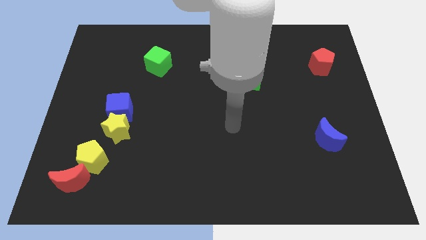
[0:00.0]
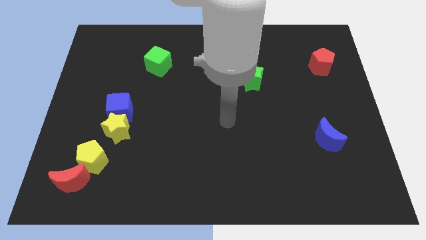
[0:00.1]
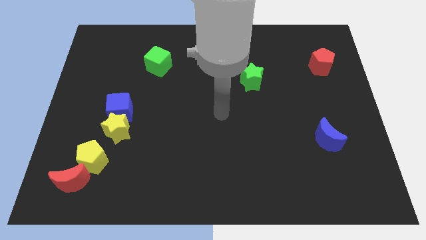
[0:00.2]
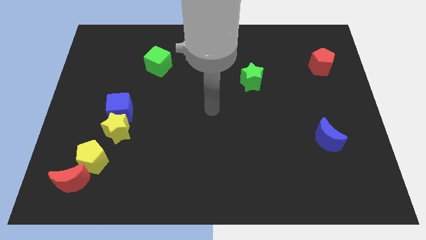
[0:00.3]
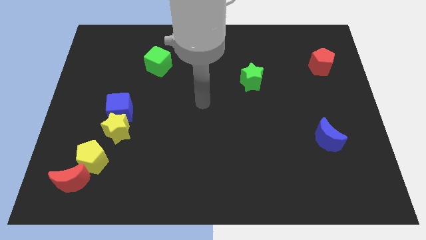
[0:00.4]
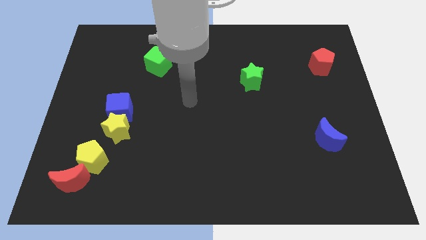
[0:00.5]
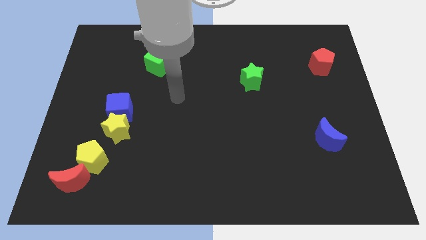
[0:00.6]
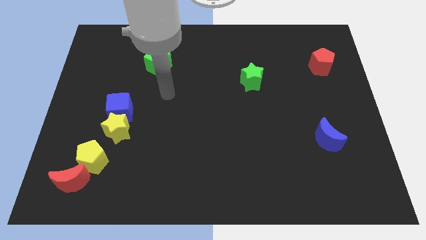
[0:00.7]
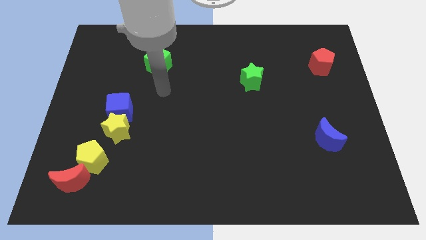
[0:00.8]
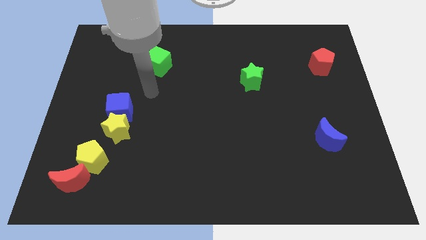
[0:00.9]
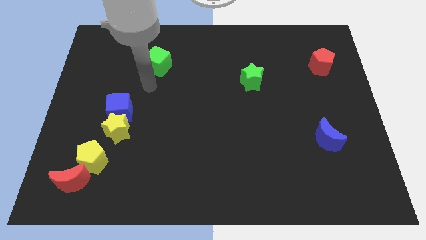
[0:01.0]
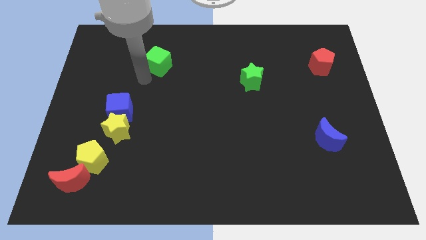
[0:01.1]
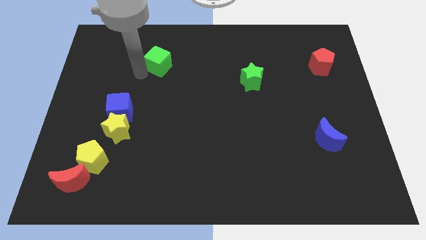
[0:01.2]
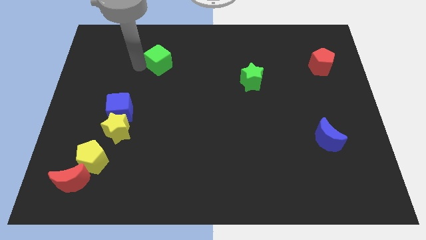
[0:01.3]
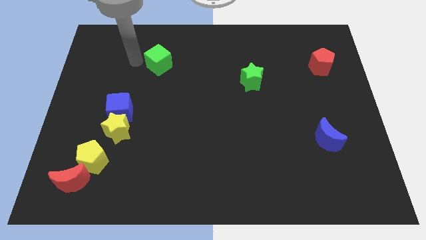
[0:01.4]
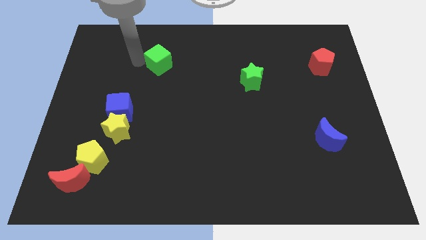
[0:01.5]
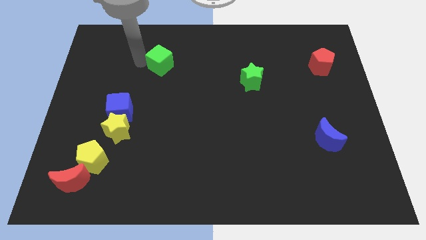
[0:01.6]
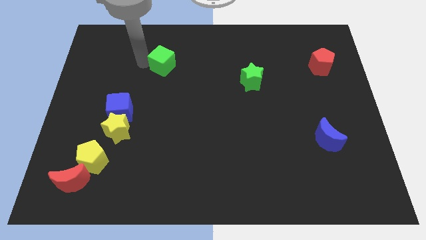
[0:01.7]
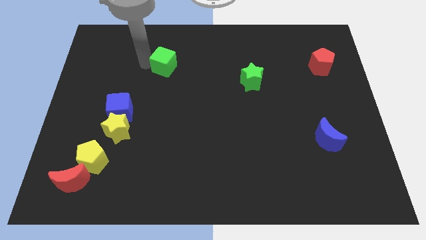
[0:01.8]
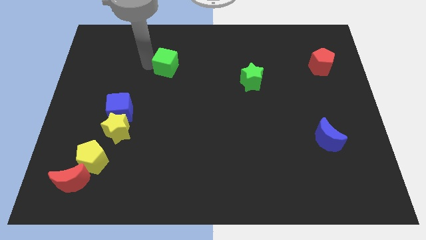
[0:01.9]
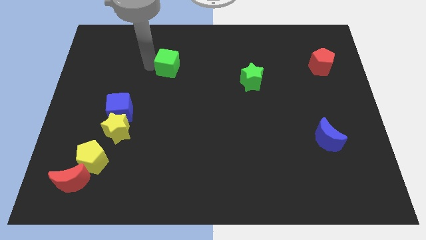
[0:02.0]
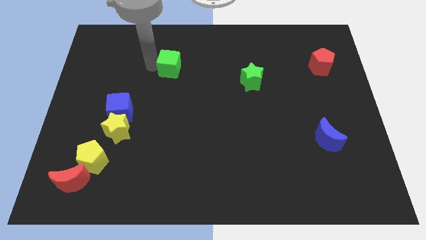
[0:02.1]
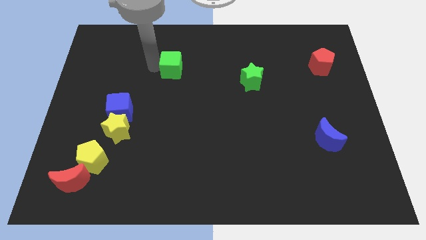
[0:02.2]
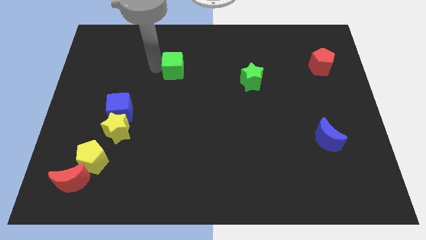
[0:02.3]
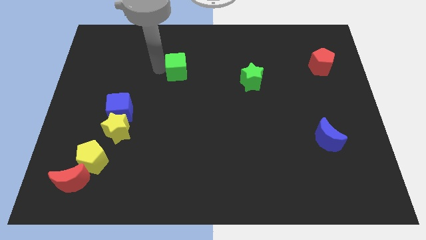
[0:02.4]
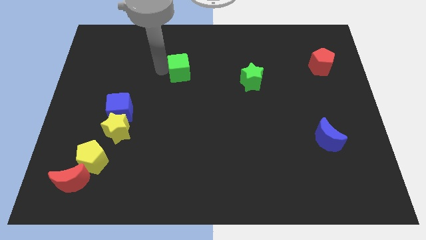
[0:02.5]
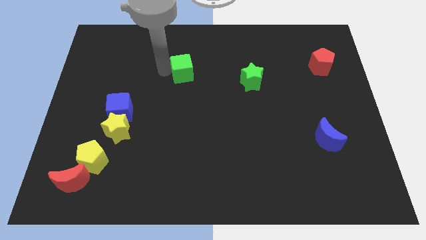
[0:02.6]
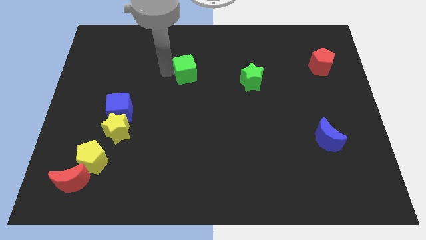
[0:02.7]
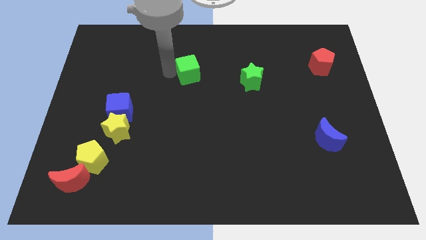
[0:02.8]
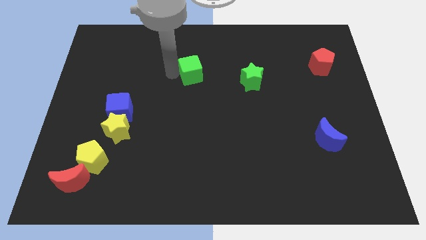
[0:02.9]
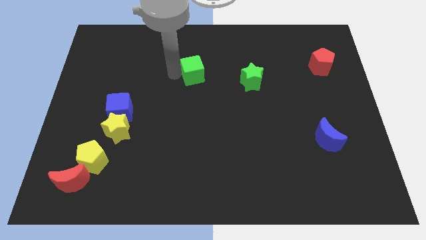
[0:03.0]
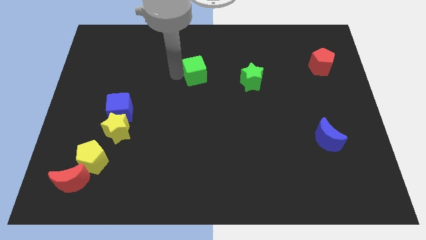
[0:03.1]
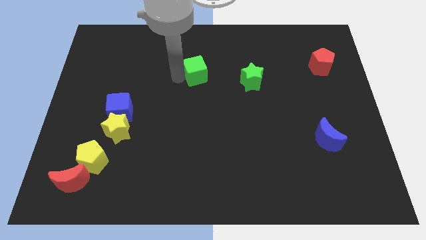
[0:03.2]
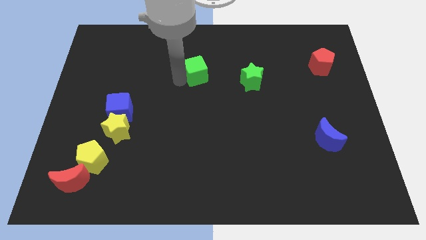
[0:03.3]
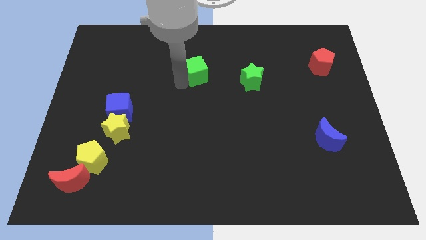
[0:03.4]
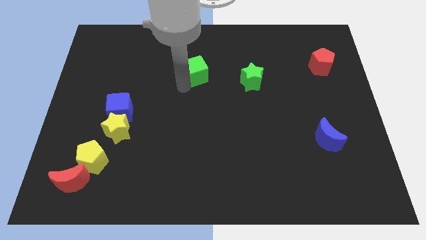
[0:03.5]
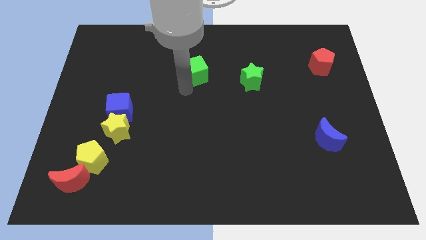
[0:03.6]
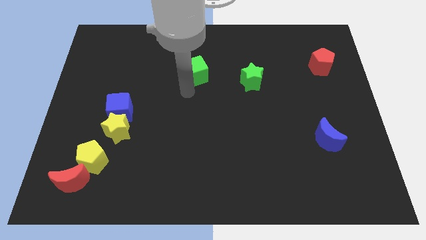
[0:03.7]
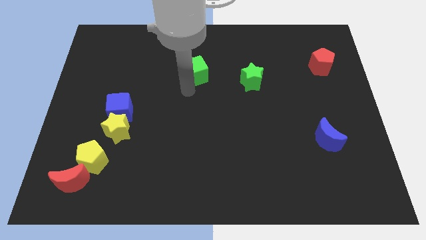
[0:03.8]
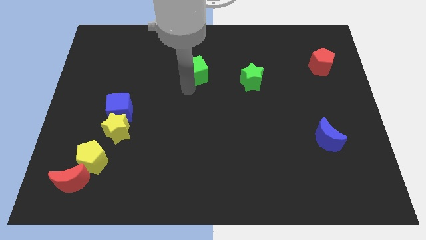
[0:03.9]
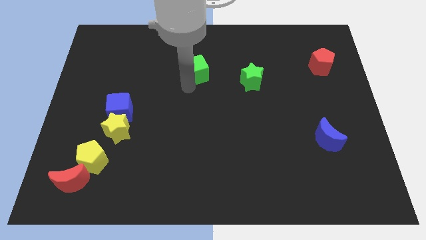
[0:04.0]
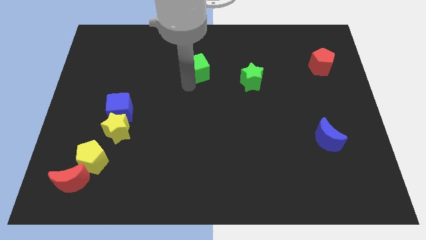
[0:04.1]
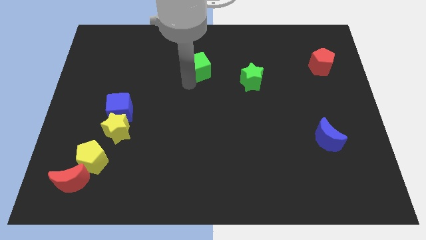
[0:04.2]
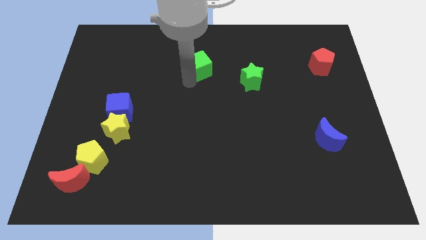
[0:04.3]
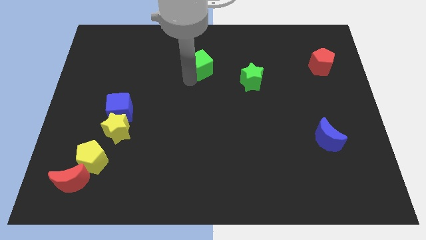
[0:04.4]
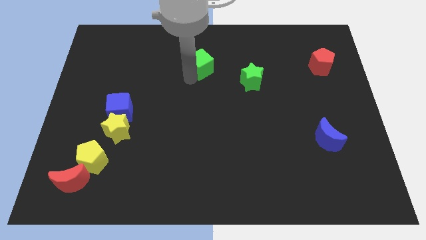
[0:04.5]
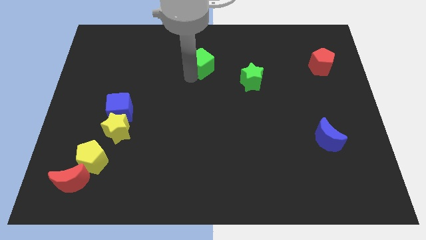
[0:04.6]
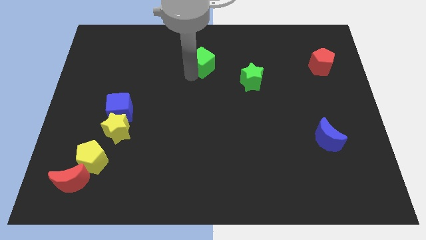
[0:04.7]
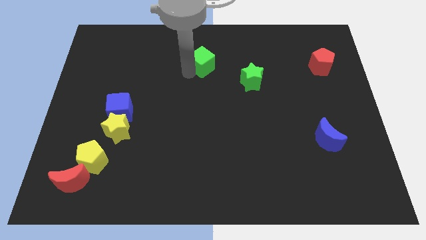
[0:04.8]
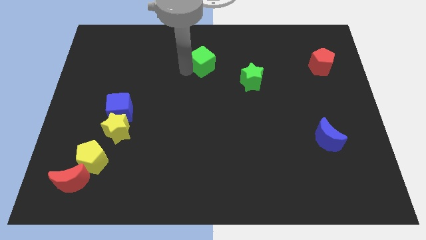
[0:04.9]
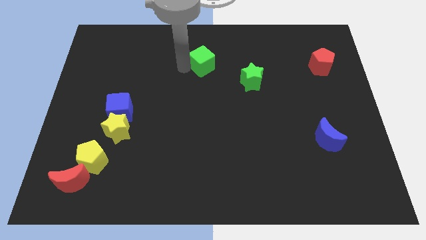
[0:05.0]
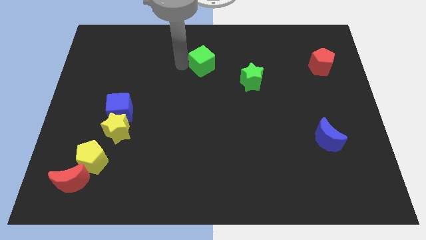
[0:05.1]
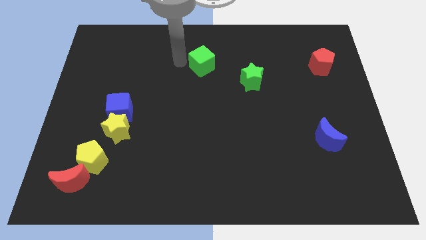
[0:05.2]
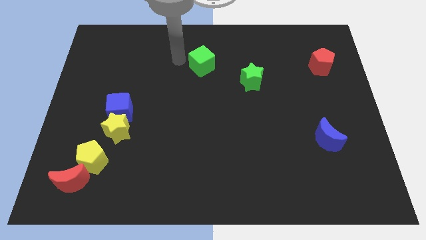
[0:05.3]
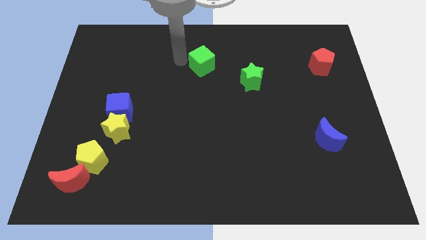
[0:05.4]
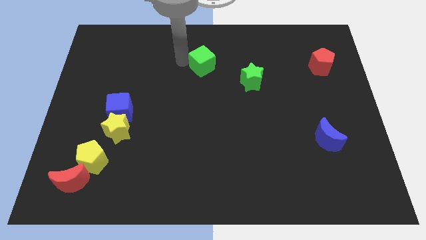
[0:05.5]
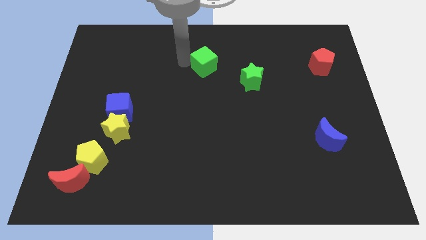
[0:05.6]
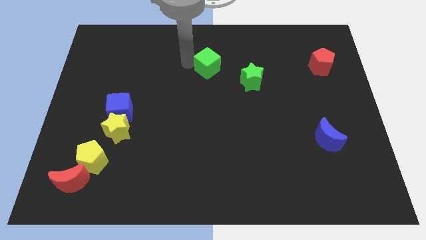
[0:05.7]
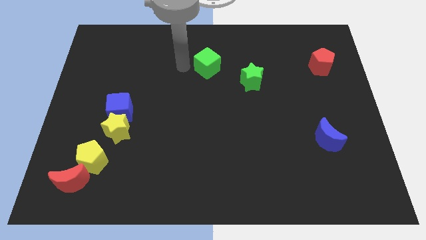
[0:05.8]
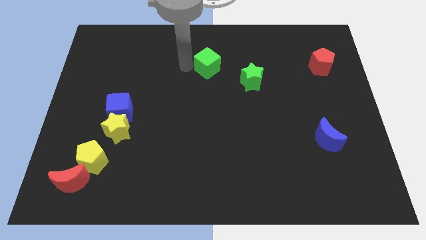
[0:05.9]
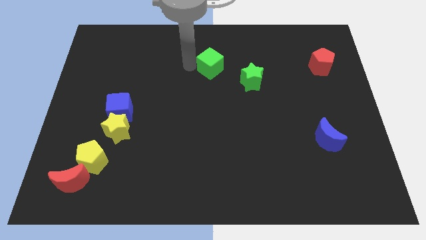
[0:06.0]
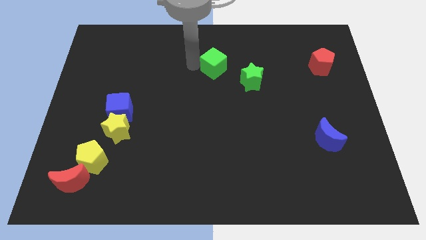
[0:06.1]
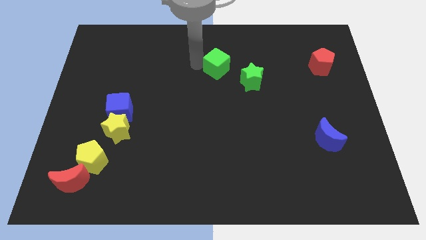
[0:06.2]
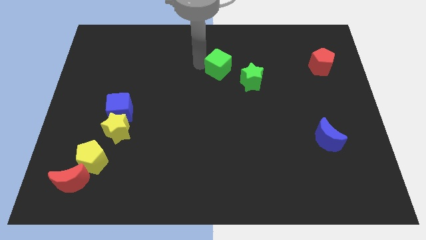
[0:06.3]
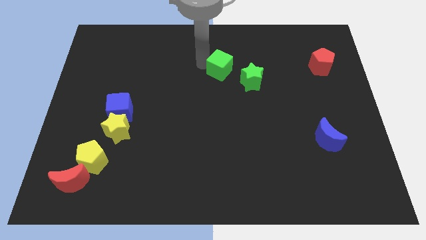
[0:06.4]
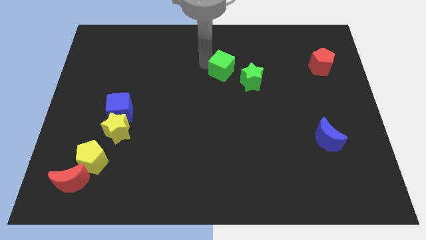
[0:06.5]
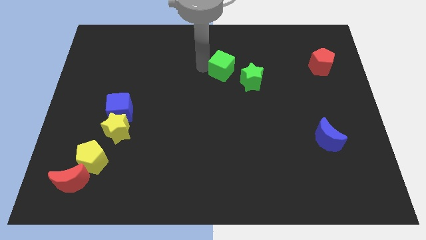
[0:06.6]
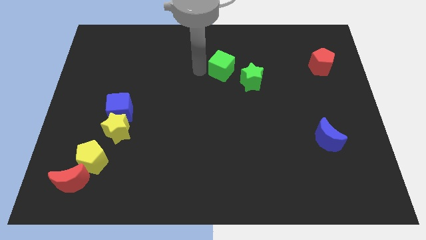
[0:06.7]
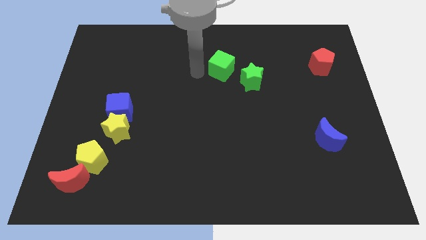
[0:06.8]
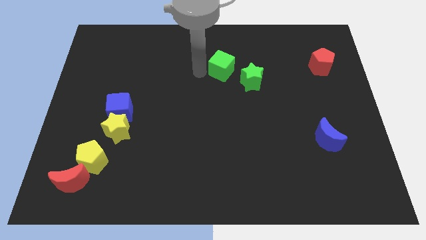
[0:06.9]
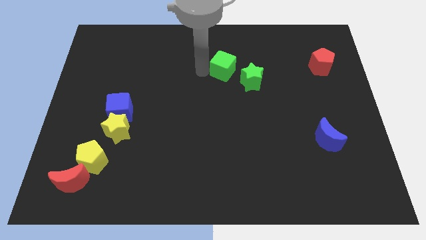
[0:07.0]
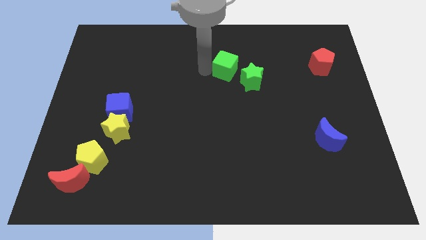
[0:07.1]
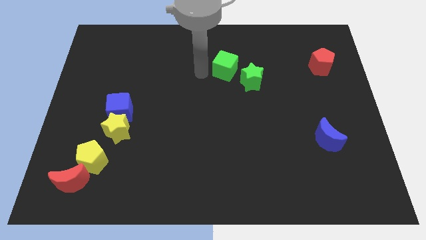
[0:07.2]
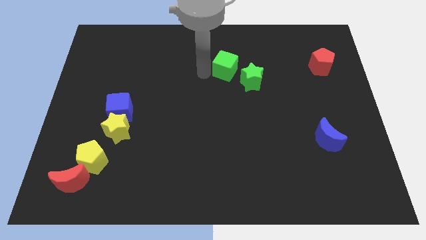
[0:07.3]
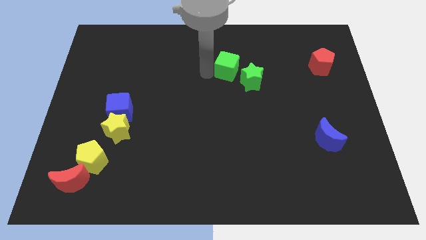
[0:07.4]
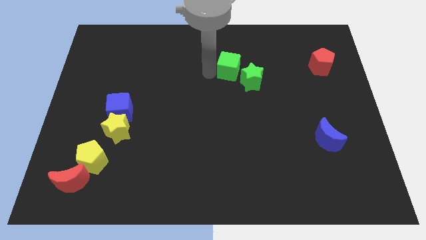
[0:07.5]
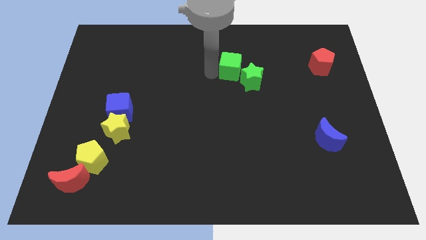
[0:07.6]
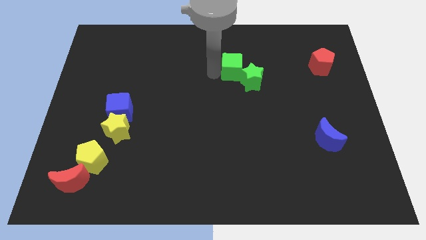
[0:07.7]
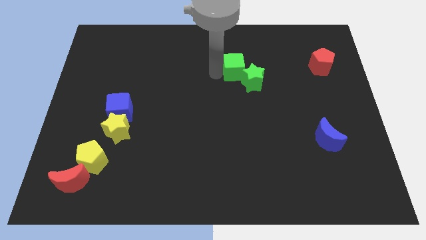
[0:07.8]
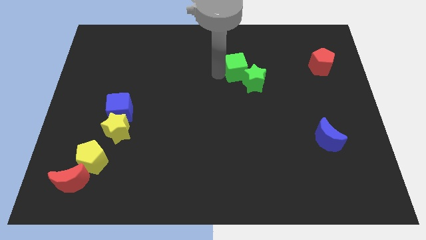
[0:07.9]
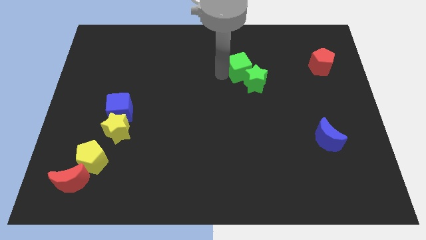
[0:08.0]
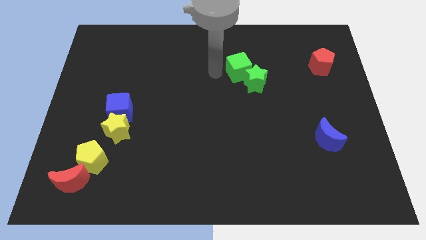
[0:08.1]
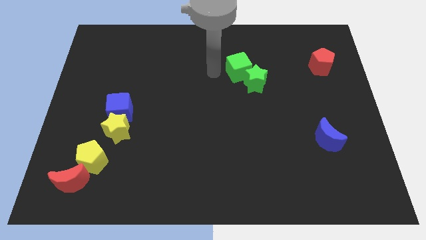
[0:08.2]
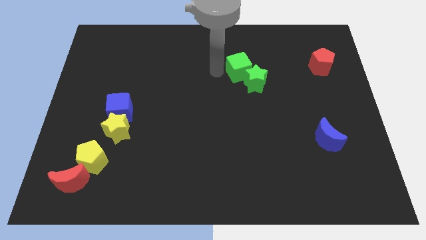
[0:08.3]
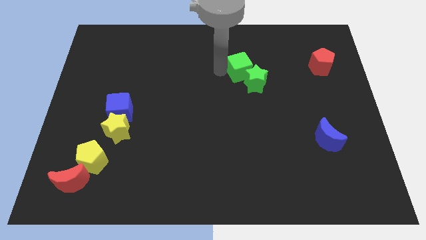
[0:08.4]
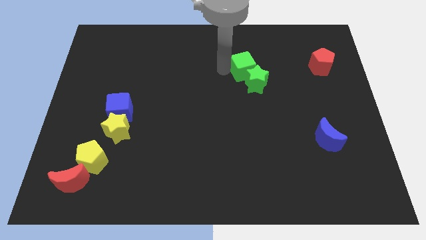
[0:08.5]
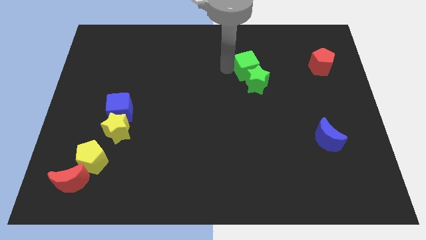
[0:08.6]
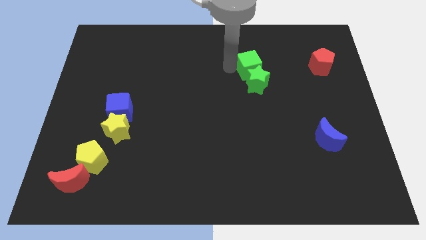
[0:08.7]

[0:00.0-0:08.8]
put the green cube to the top right side of the green star
